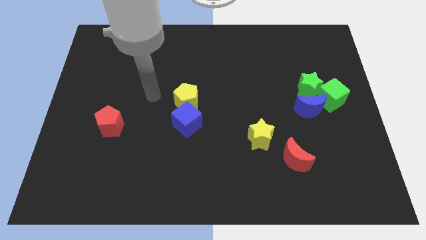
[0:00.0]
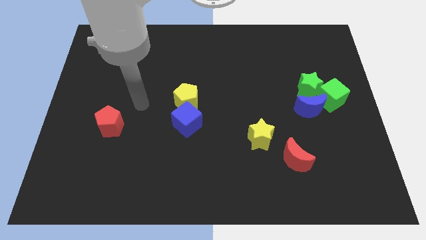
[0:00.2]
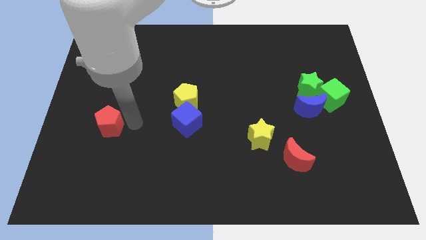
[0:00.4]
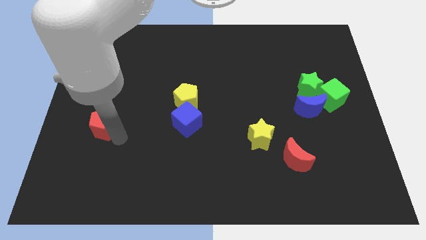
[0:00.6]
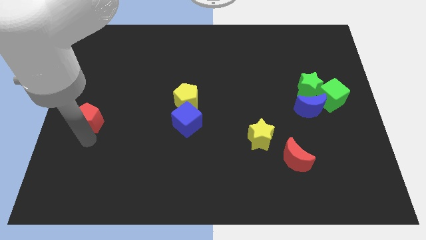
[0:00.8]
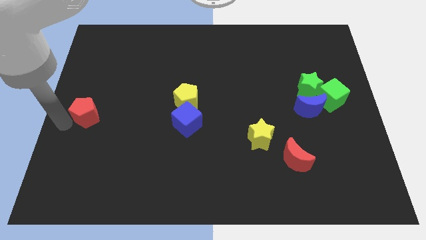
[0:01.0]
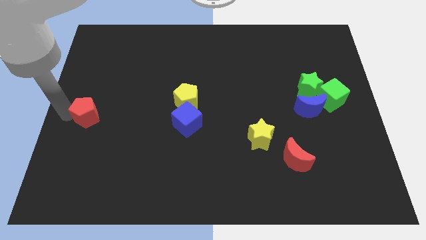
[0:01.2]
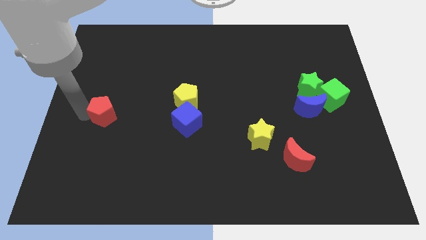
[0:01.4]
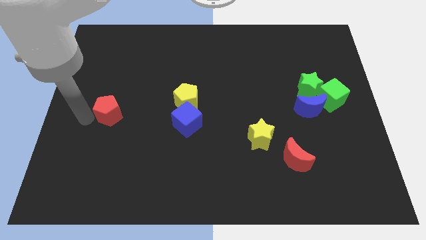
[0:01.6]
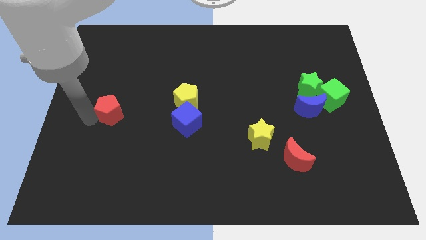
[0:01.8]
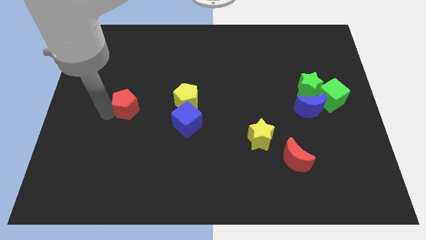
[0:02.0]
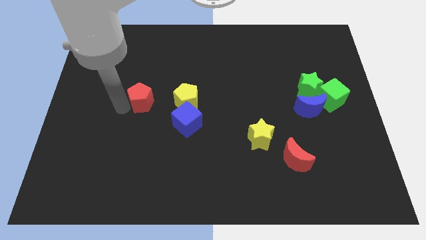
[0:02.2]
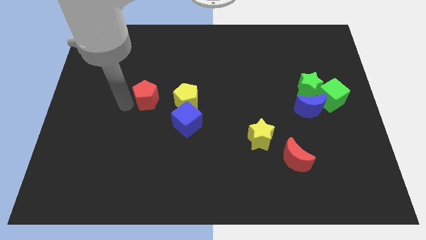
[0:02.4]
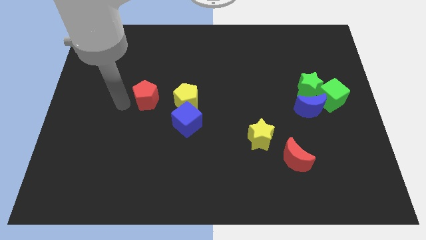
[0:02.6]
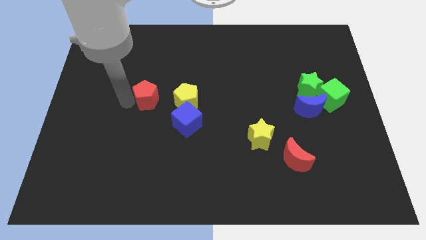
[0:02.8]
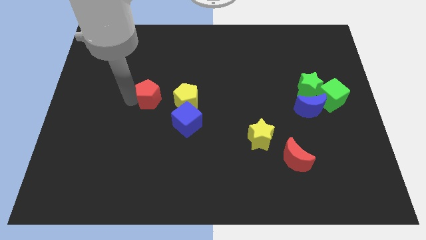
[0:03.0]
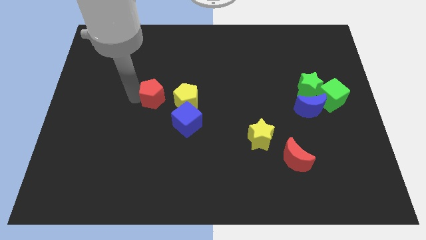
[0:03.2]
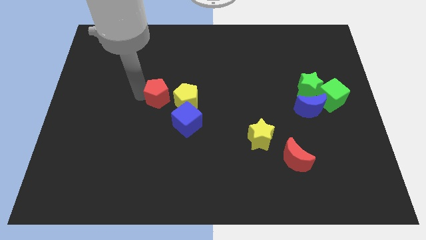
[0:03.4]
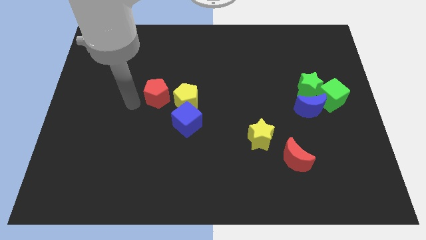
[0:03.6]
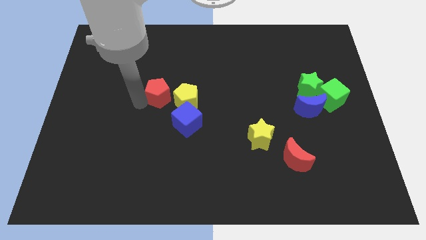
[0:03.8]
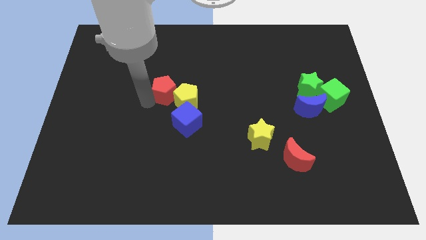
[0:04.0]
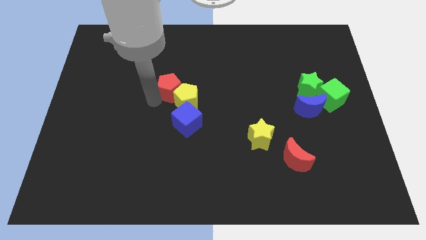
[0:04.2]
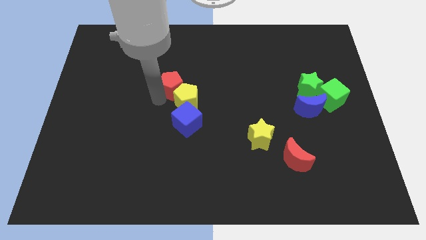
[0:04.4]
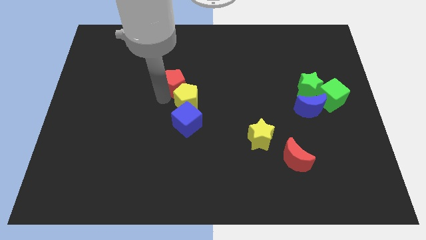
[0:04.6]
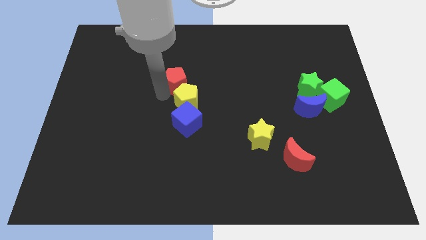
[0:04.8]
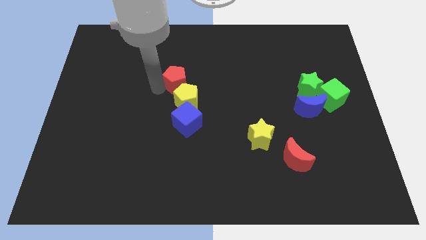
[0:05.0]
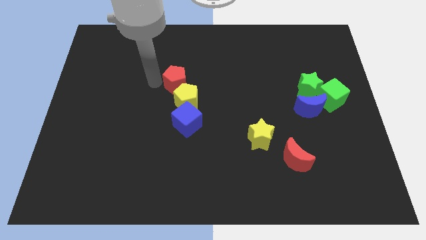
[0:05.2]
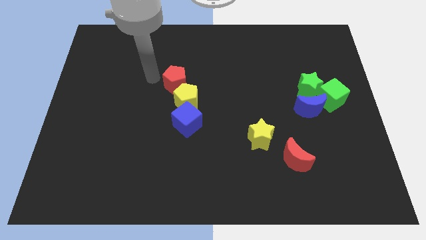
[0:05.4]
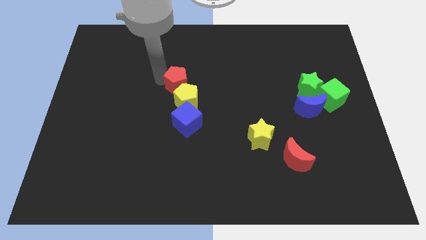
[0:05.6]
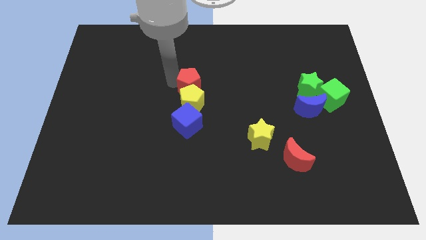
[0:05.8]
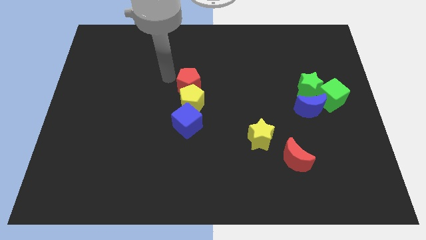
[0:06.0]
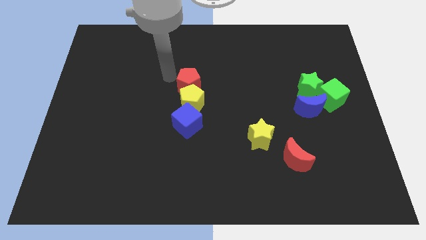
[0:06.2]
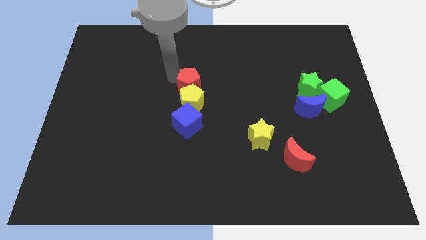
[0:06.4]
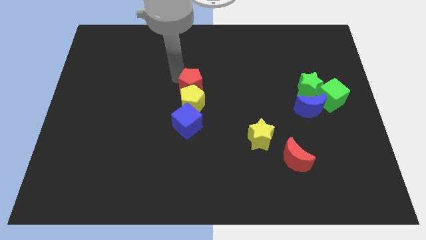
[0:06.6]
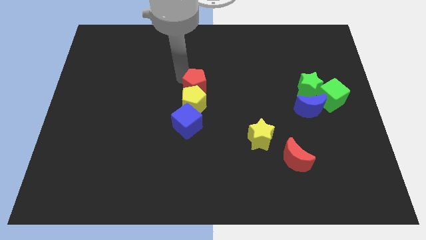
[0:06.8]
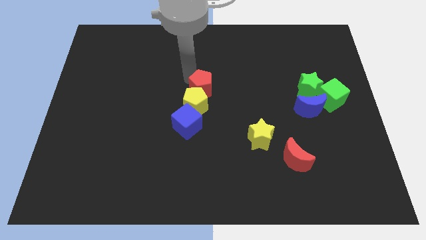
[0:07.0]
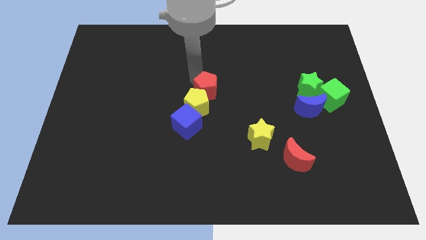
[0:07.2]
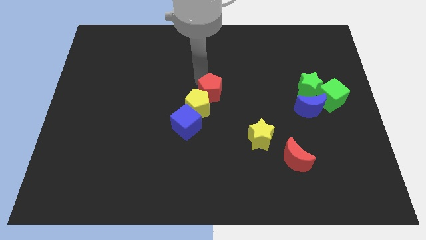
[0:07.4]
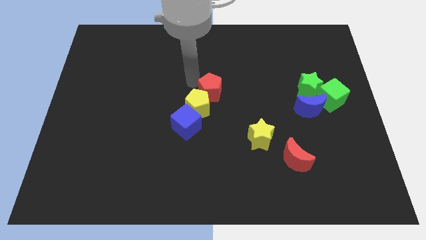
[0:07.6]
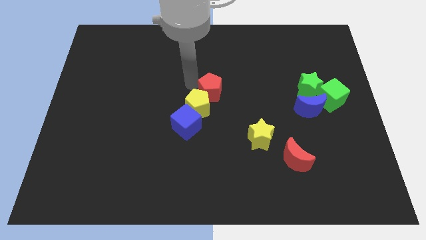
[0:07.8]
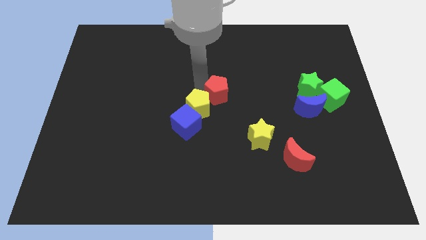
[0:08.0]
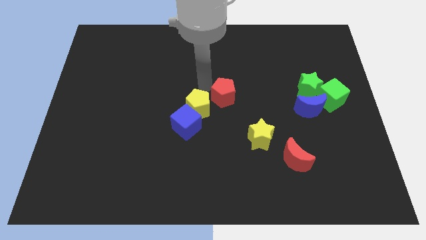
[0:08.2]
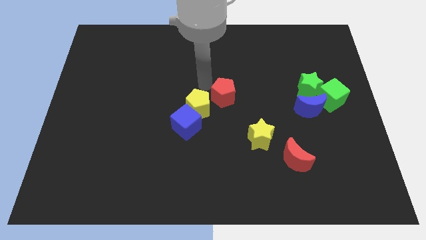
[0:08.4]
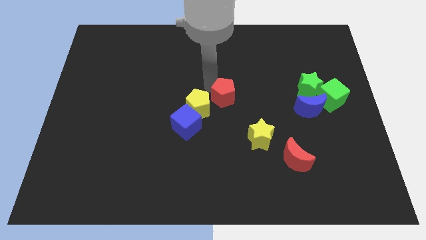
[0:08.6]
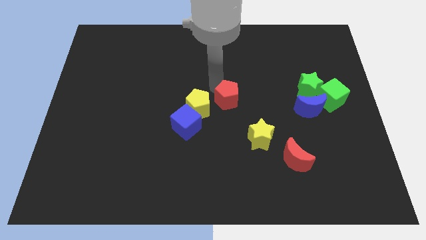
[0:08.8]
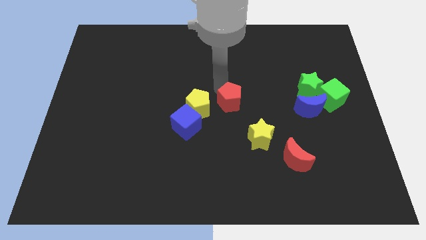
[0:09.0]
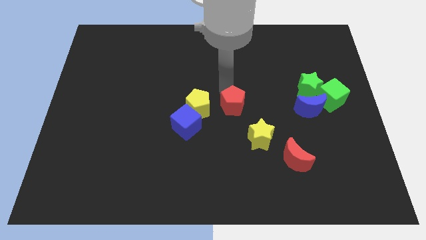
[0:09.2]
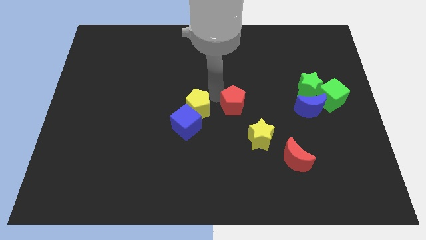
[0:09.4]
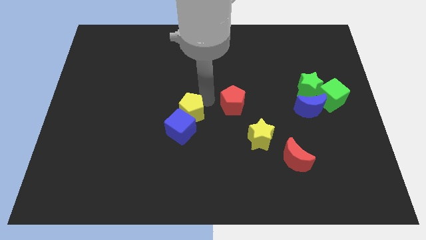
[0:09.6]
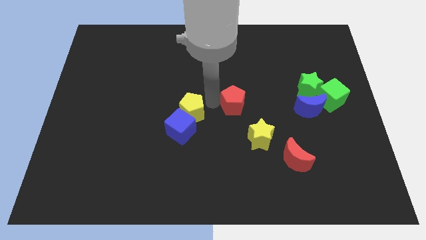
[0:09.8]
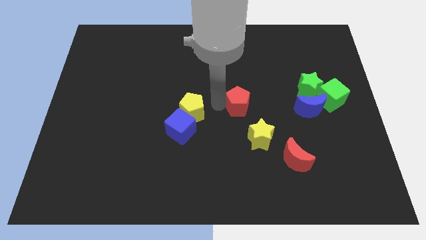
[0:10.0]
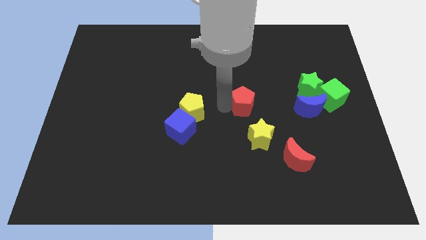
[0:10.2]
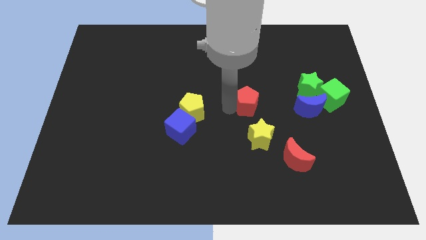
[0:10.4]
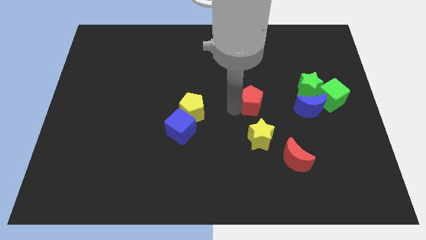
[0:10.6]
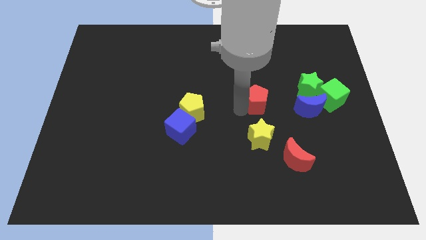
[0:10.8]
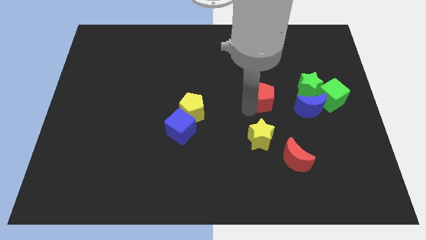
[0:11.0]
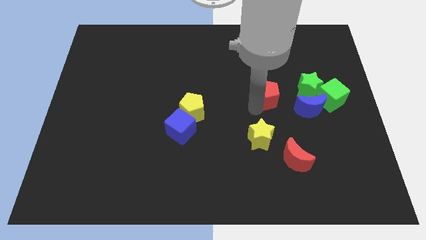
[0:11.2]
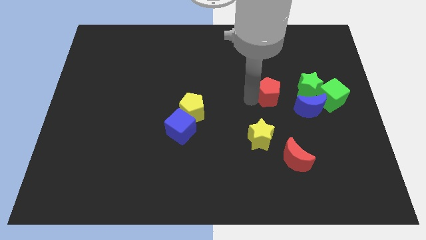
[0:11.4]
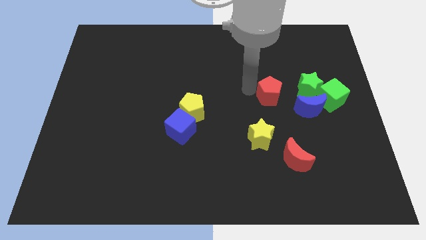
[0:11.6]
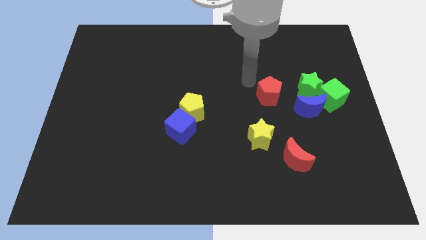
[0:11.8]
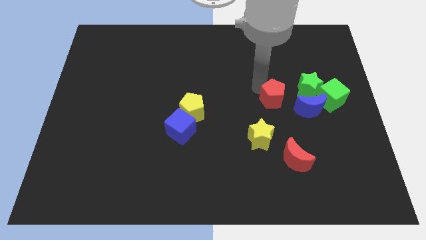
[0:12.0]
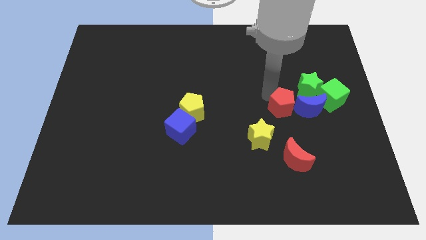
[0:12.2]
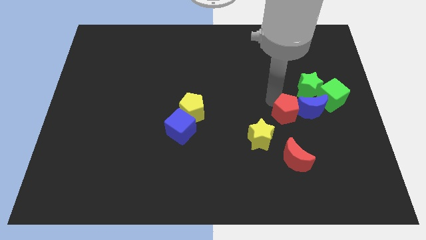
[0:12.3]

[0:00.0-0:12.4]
move the red pentagon close to the blue moon
